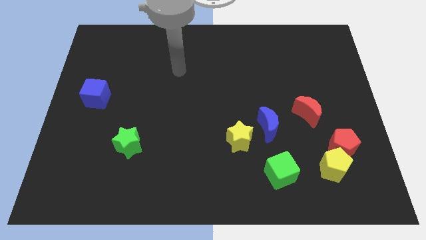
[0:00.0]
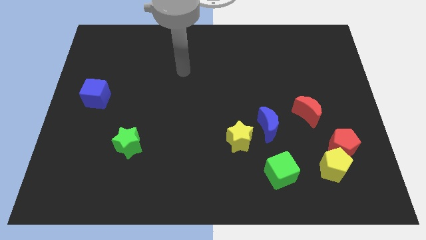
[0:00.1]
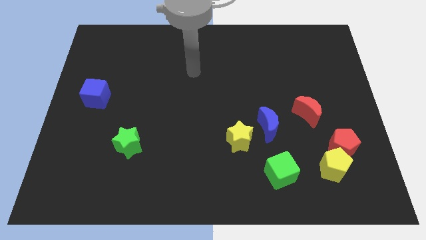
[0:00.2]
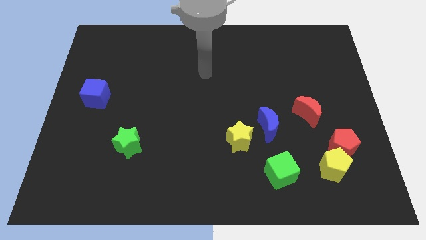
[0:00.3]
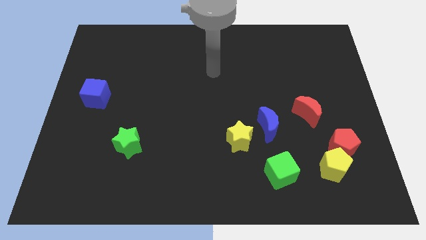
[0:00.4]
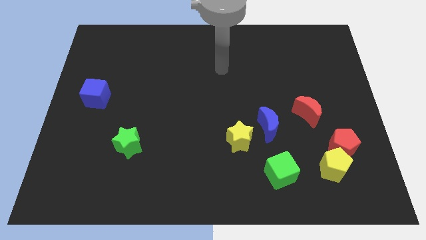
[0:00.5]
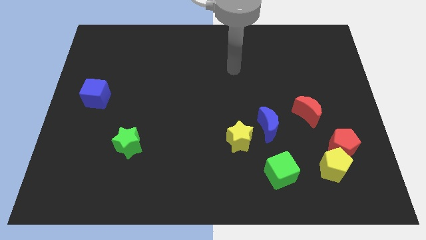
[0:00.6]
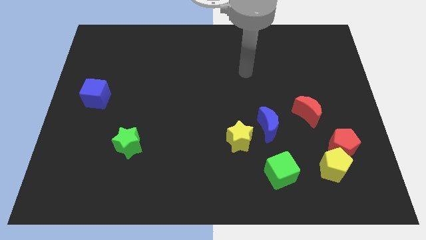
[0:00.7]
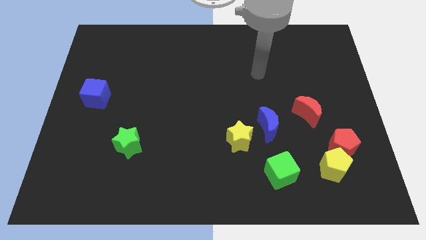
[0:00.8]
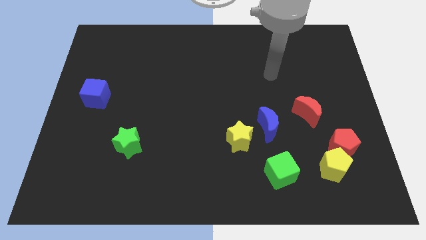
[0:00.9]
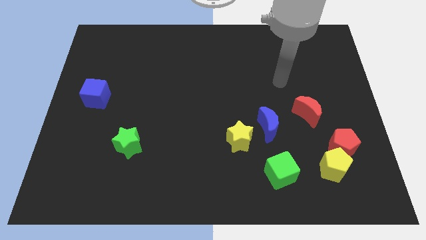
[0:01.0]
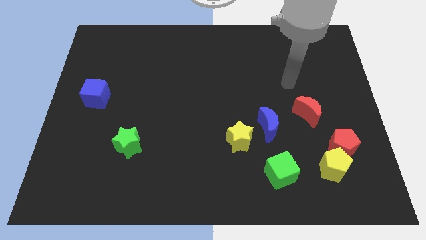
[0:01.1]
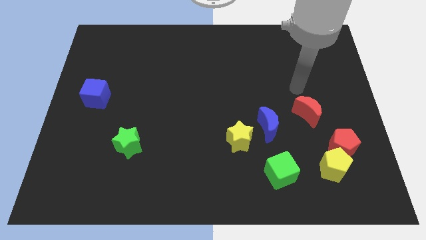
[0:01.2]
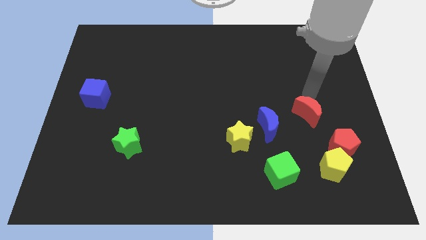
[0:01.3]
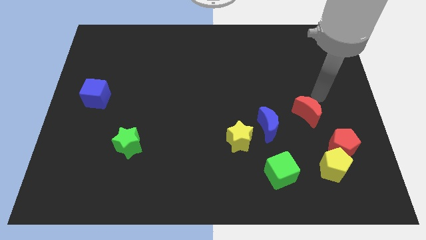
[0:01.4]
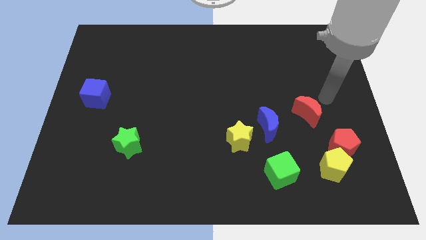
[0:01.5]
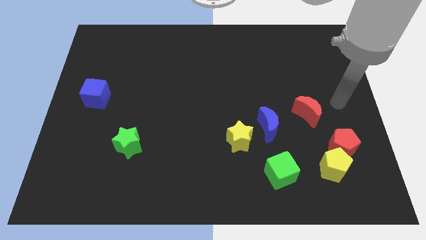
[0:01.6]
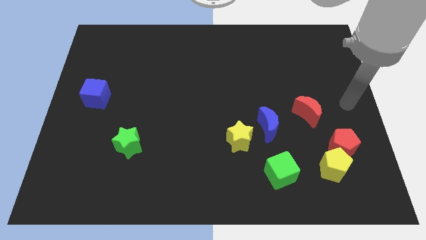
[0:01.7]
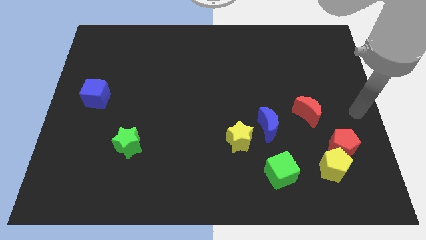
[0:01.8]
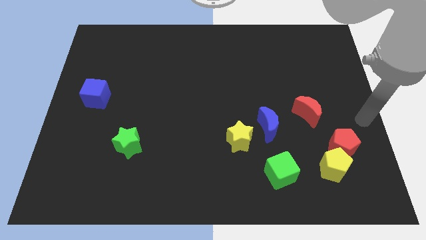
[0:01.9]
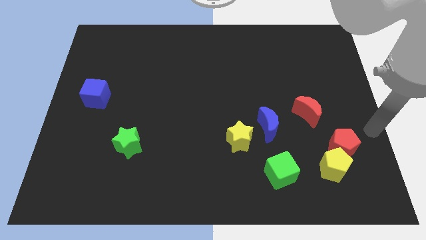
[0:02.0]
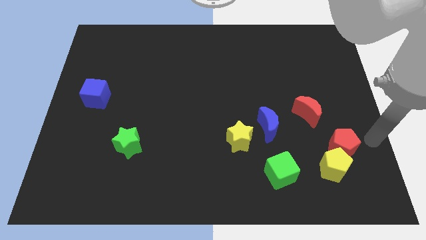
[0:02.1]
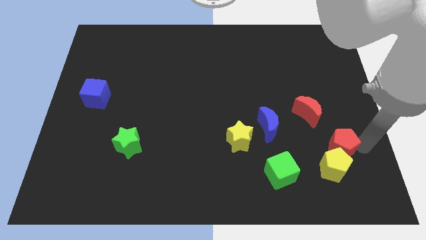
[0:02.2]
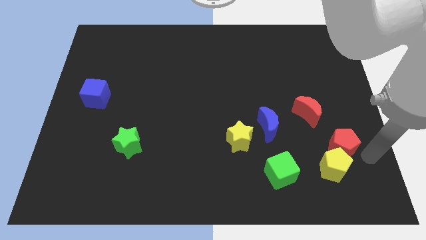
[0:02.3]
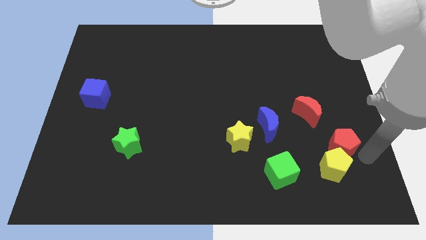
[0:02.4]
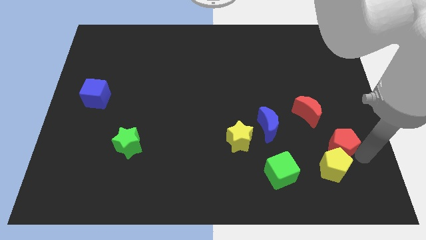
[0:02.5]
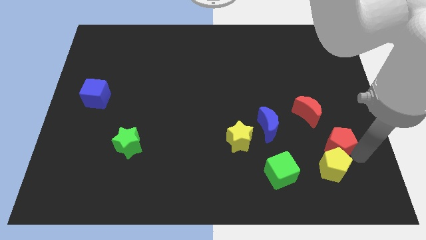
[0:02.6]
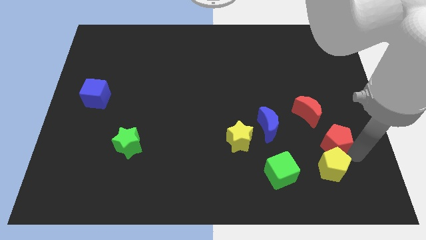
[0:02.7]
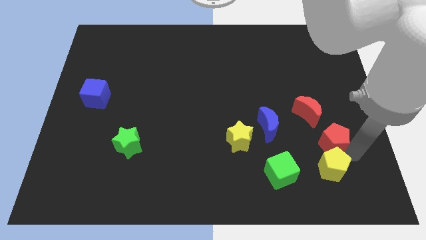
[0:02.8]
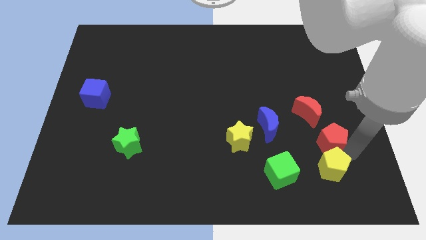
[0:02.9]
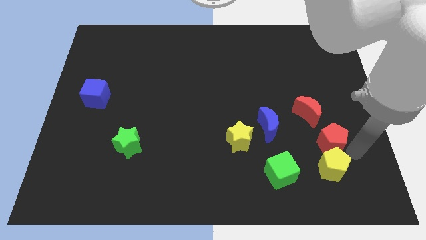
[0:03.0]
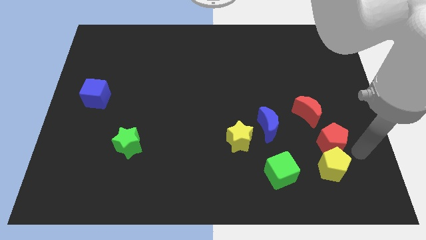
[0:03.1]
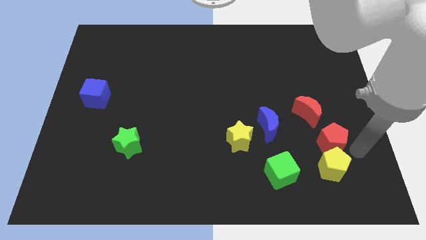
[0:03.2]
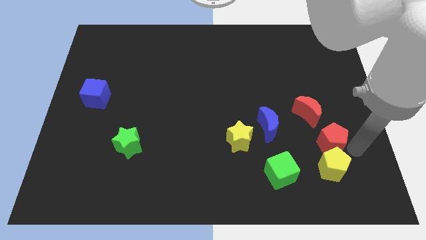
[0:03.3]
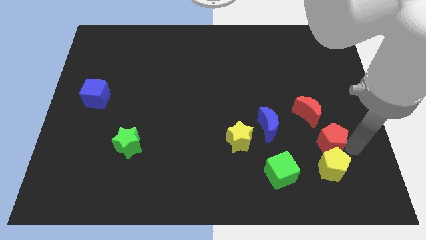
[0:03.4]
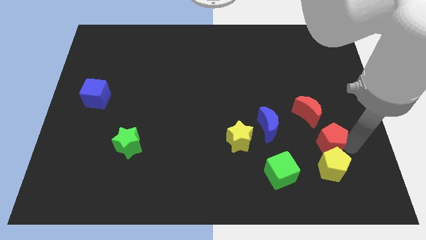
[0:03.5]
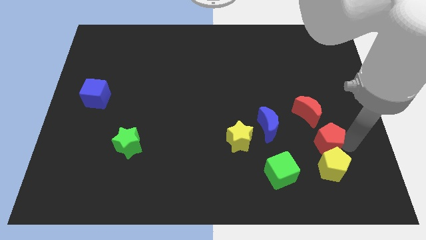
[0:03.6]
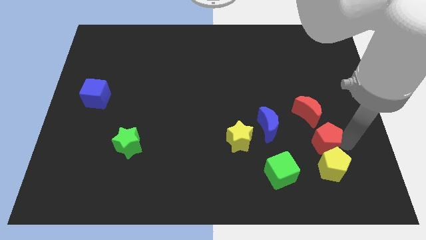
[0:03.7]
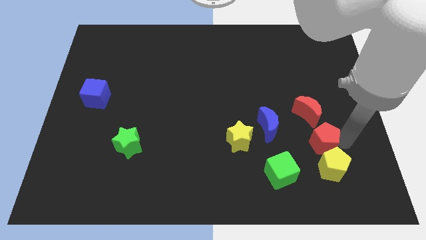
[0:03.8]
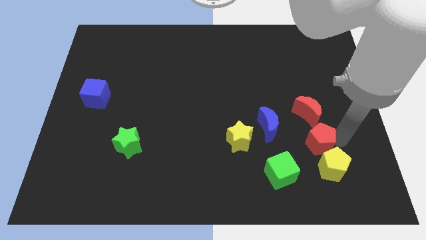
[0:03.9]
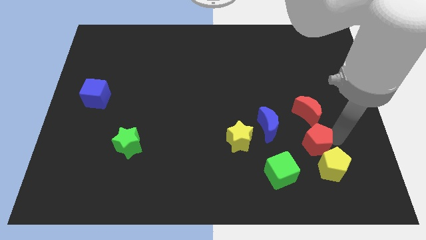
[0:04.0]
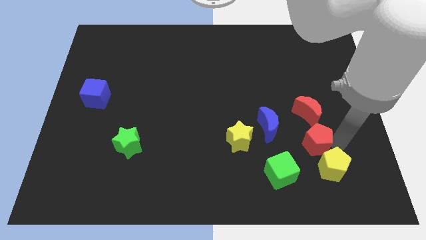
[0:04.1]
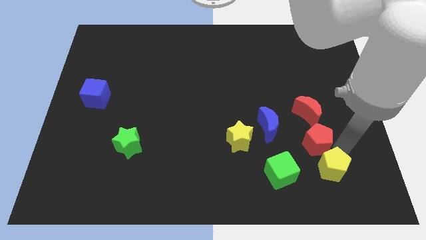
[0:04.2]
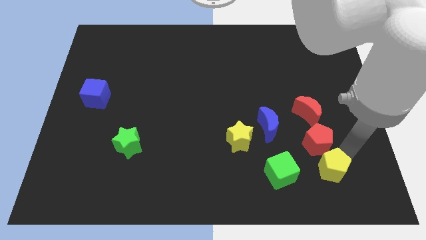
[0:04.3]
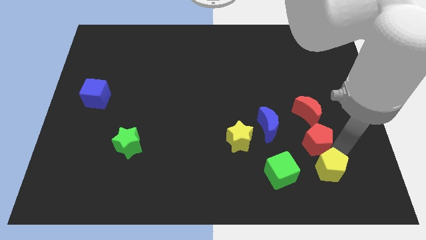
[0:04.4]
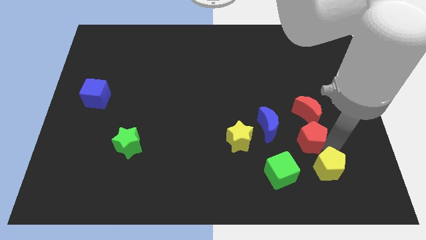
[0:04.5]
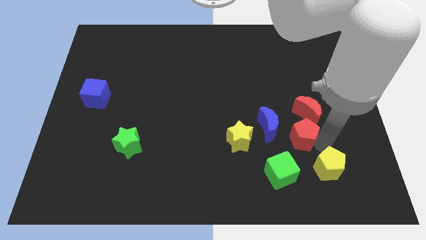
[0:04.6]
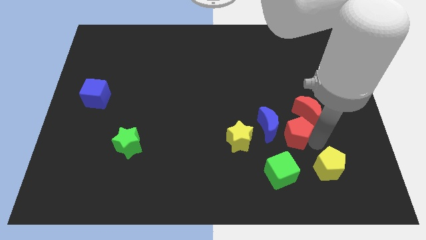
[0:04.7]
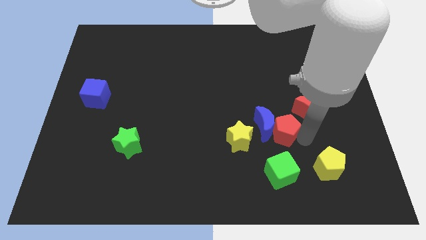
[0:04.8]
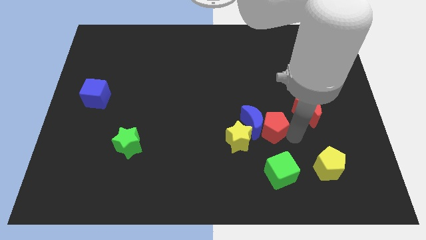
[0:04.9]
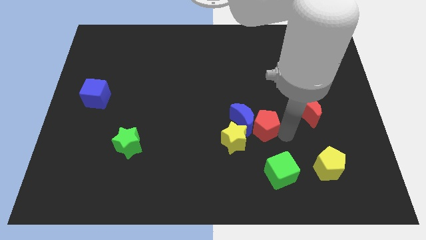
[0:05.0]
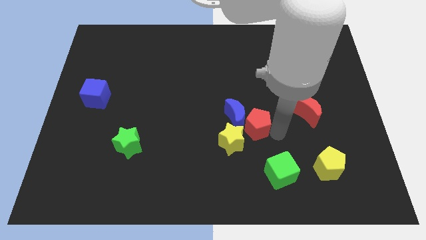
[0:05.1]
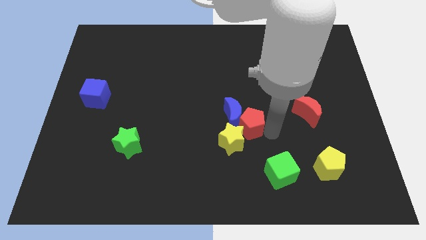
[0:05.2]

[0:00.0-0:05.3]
move the red pentagon to the top of the yellow star

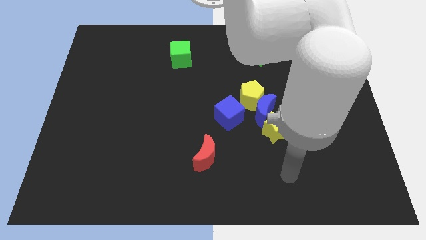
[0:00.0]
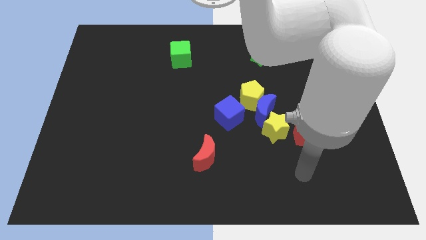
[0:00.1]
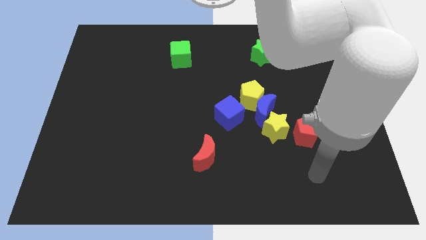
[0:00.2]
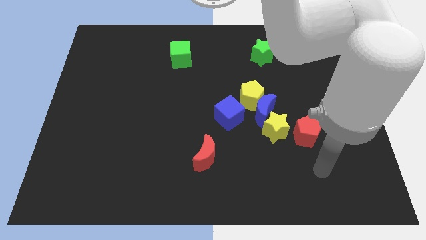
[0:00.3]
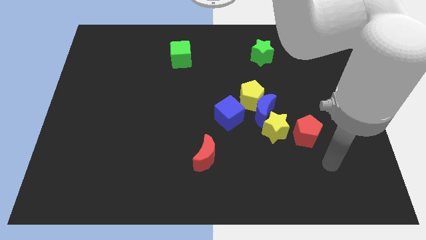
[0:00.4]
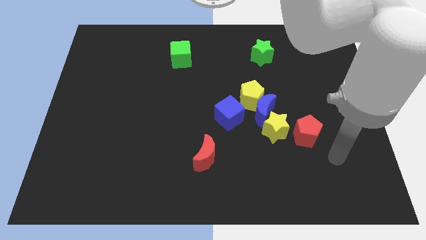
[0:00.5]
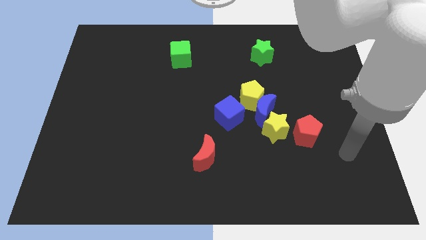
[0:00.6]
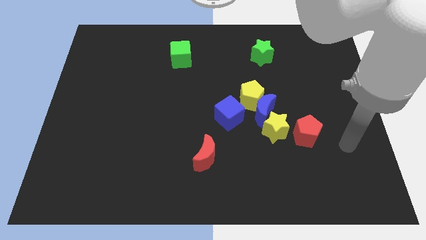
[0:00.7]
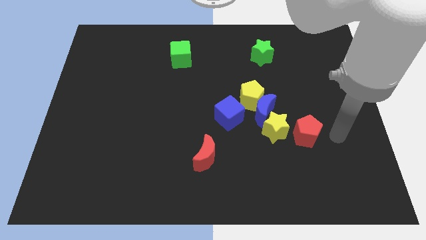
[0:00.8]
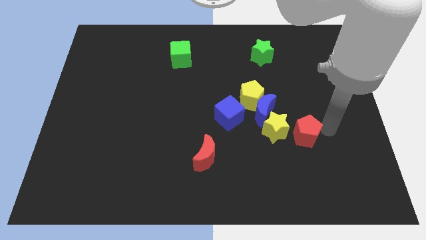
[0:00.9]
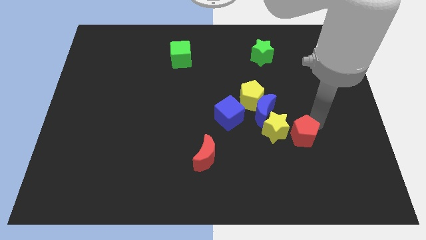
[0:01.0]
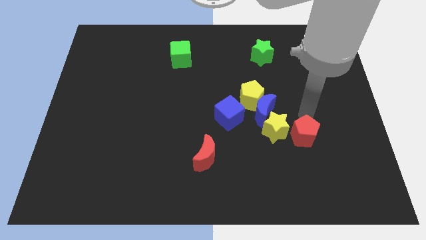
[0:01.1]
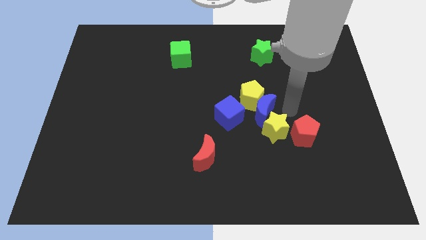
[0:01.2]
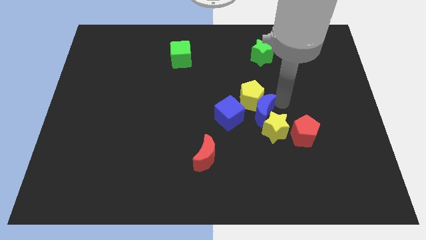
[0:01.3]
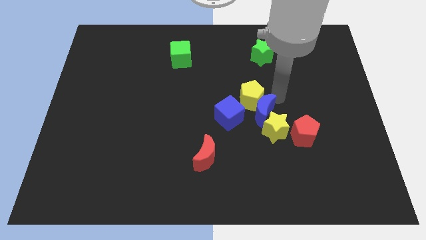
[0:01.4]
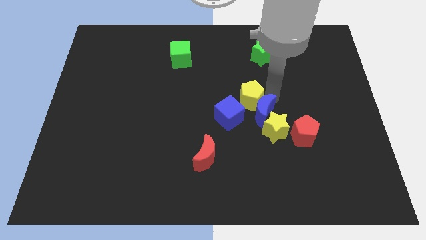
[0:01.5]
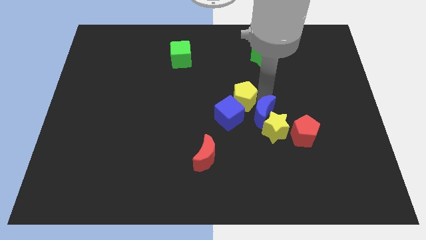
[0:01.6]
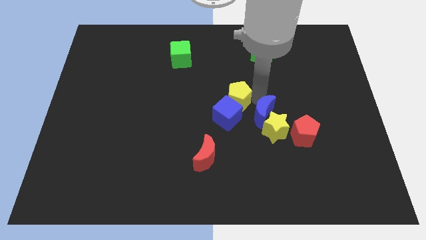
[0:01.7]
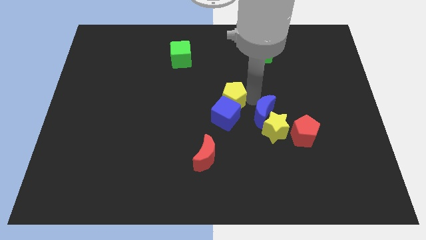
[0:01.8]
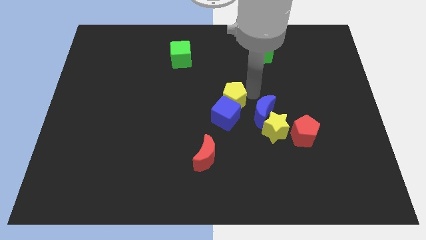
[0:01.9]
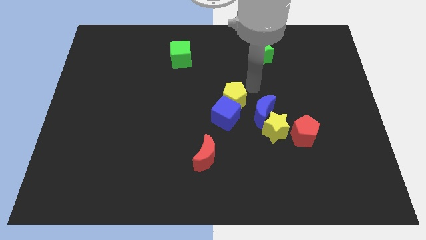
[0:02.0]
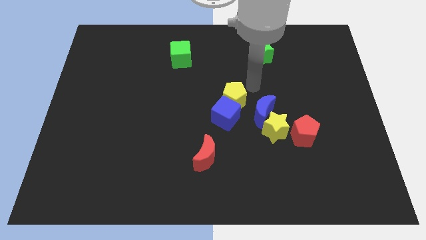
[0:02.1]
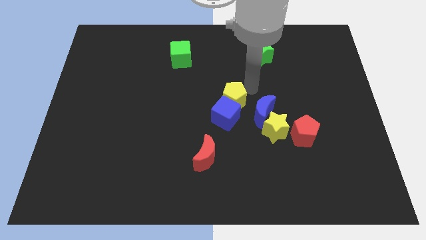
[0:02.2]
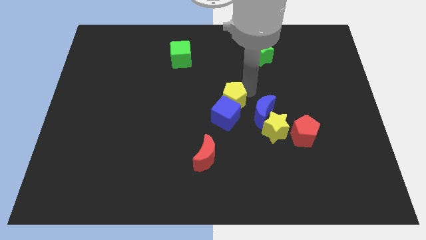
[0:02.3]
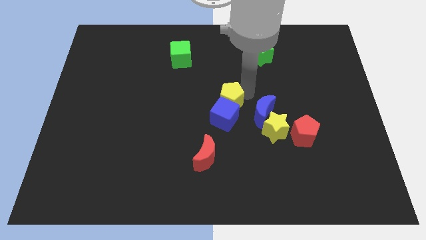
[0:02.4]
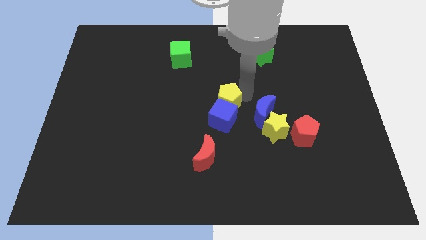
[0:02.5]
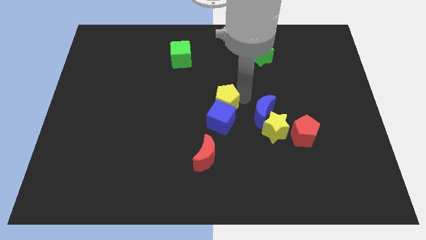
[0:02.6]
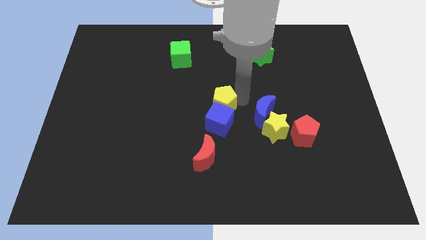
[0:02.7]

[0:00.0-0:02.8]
push the yellow pentagon above the red moon
